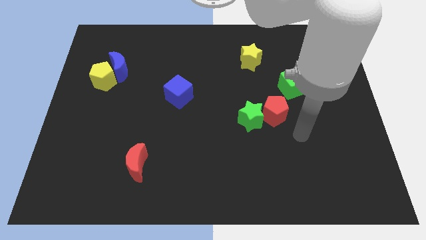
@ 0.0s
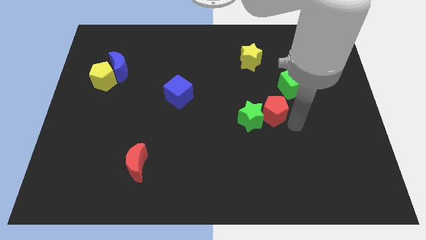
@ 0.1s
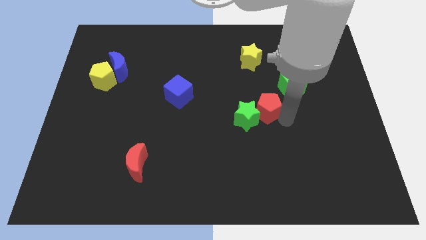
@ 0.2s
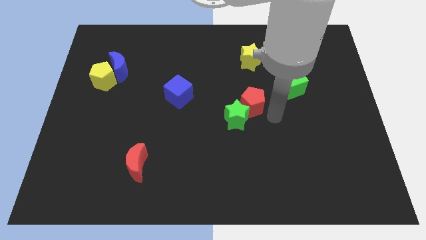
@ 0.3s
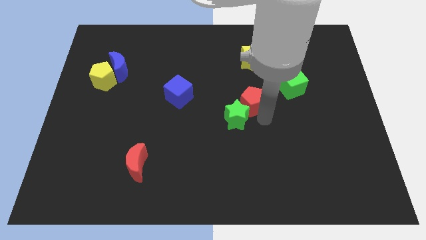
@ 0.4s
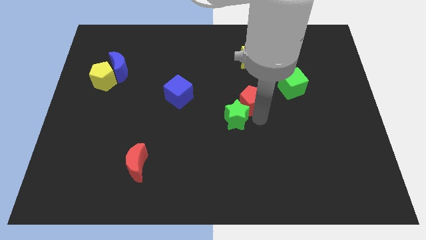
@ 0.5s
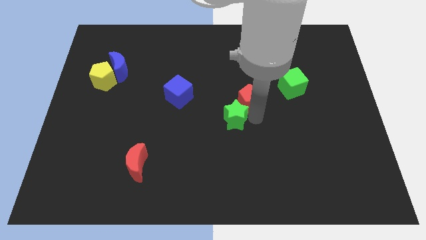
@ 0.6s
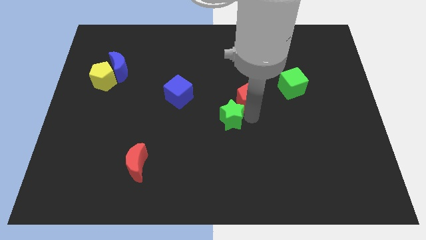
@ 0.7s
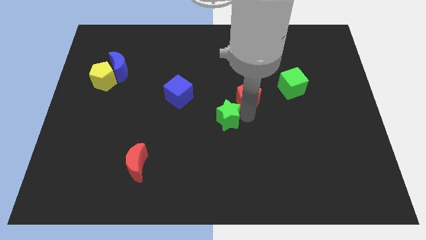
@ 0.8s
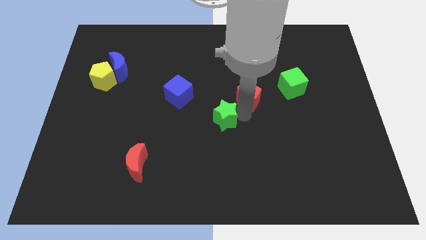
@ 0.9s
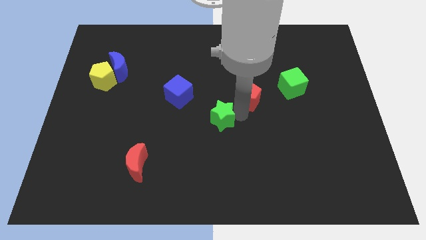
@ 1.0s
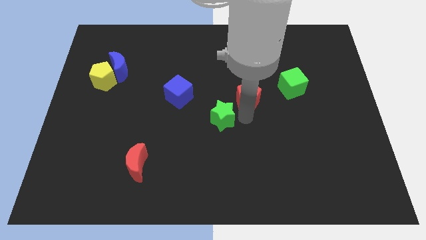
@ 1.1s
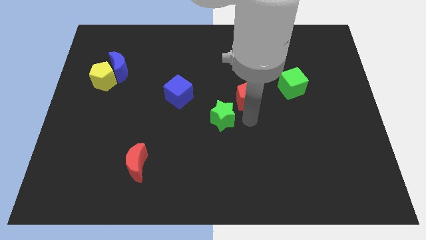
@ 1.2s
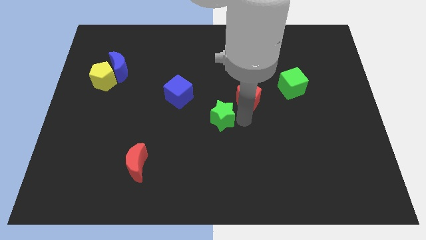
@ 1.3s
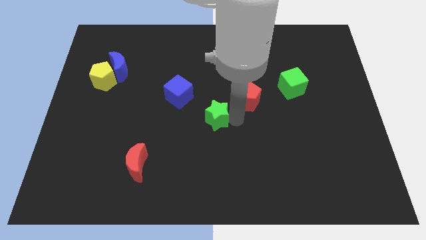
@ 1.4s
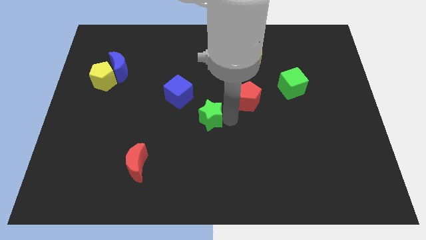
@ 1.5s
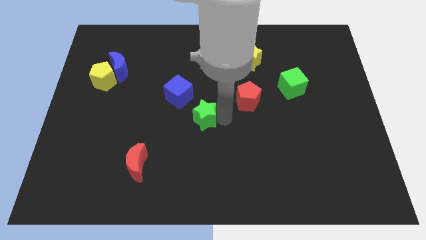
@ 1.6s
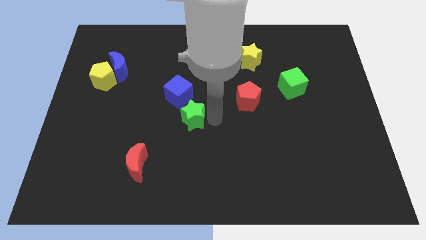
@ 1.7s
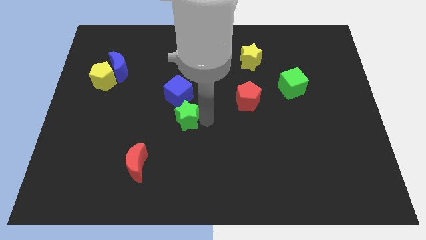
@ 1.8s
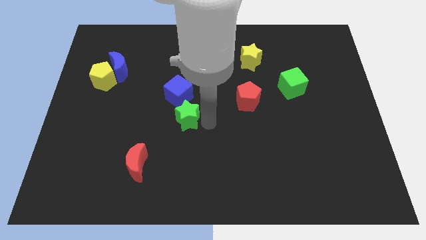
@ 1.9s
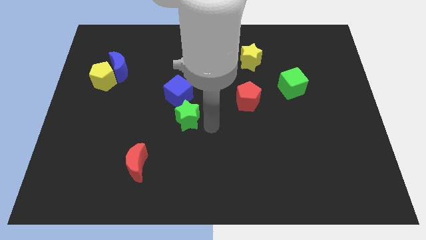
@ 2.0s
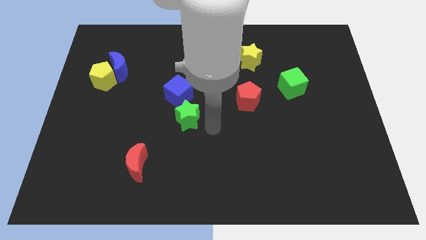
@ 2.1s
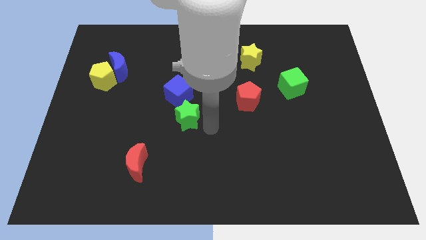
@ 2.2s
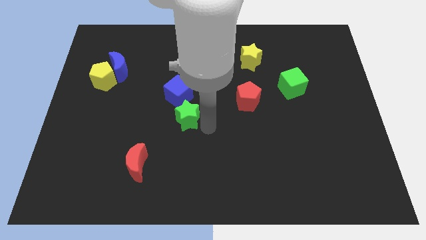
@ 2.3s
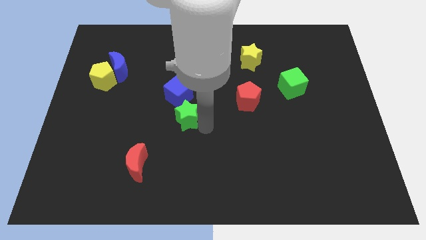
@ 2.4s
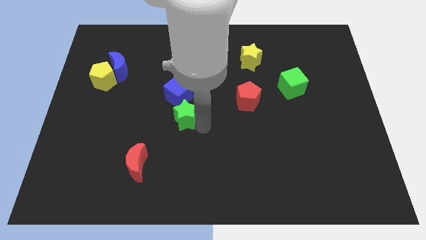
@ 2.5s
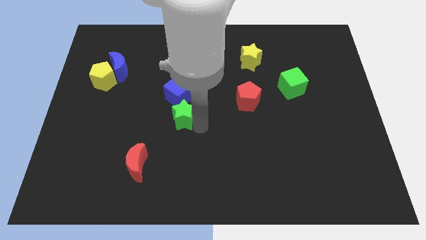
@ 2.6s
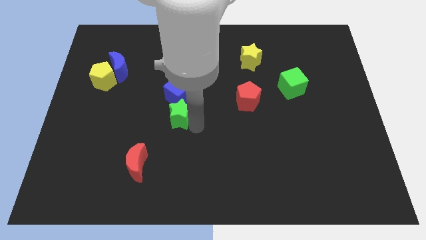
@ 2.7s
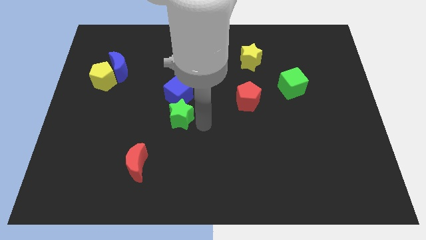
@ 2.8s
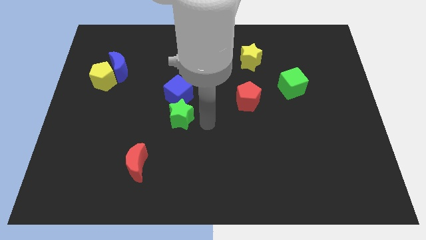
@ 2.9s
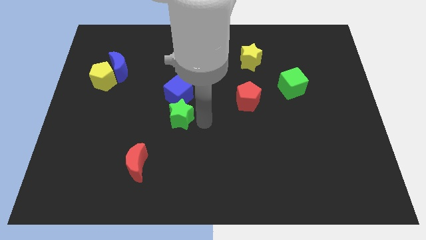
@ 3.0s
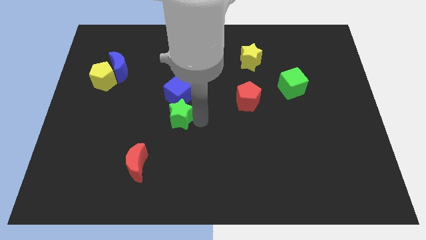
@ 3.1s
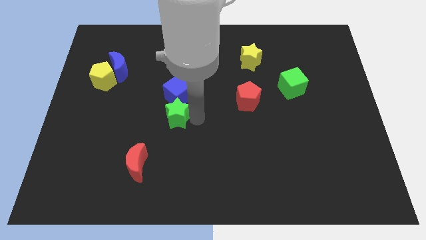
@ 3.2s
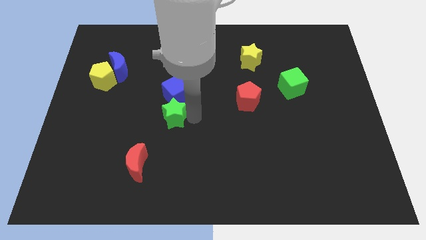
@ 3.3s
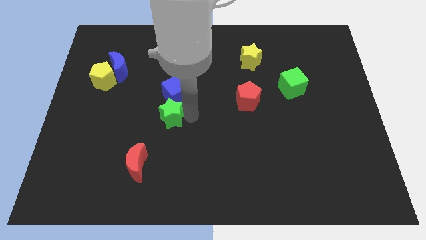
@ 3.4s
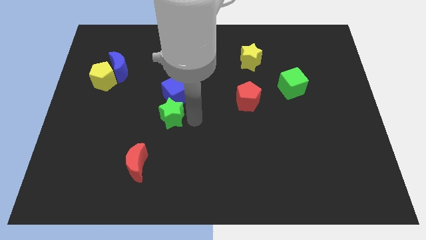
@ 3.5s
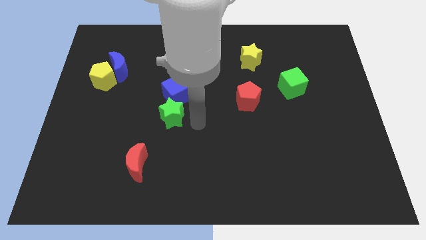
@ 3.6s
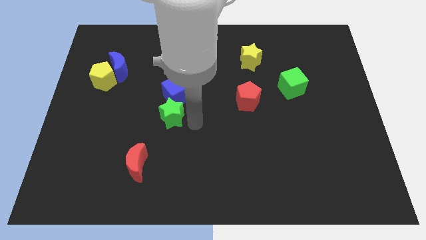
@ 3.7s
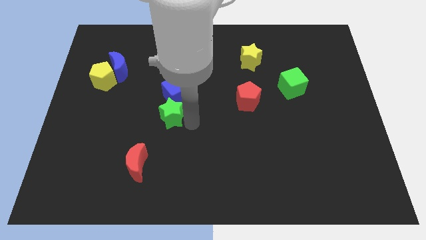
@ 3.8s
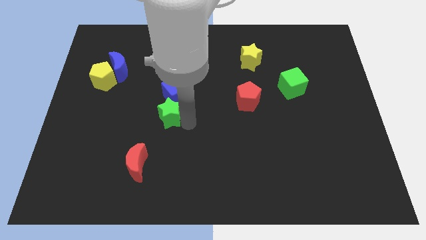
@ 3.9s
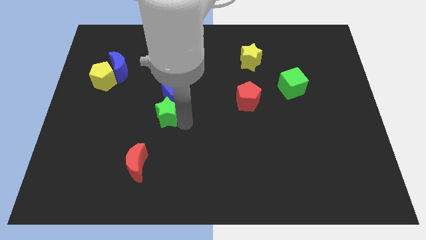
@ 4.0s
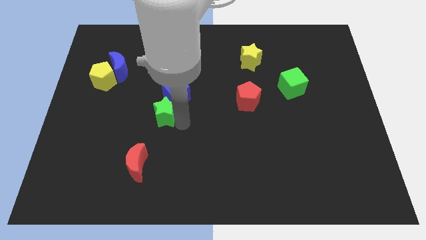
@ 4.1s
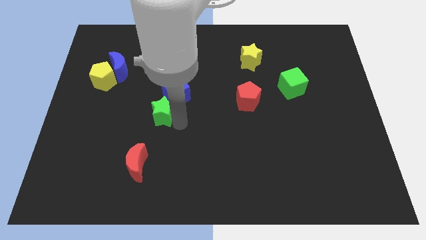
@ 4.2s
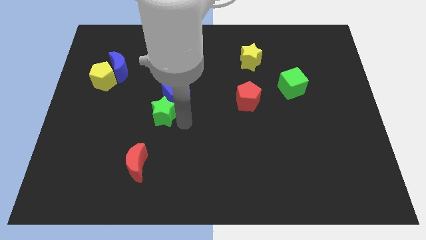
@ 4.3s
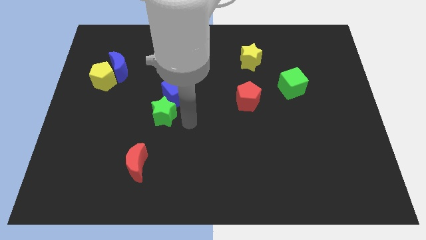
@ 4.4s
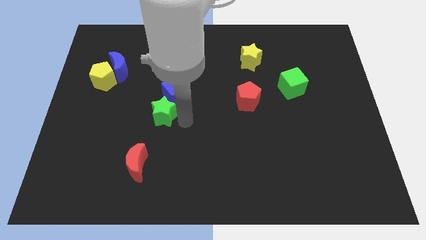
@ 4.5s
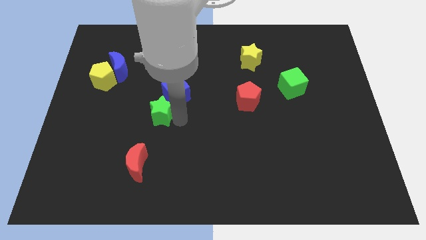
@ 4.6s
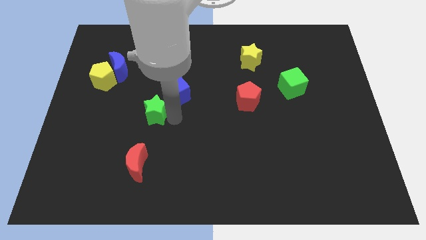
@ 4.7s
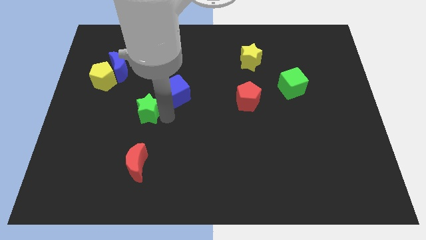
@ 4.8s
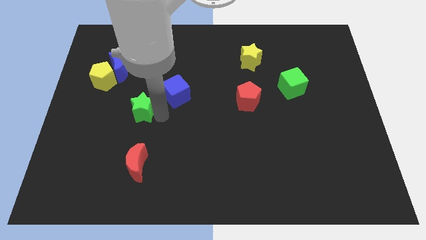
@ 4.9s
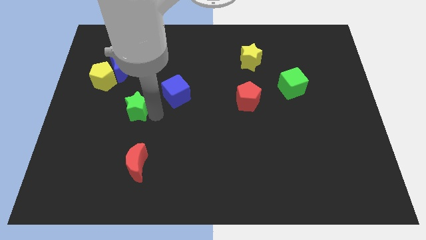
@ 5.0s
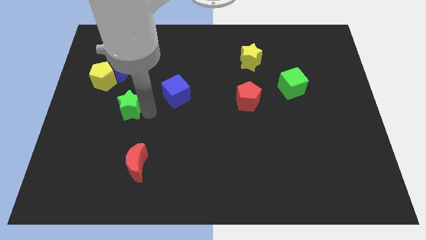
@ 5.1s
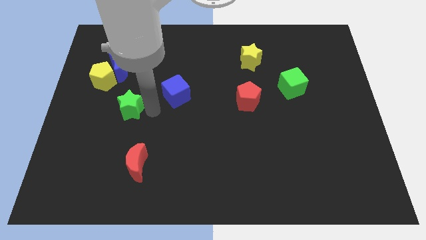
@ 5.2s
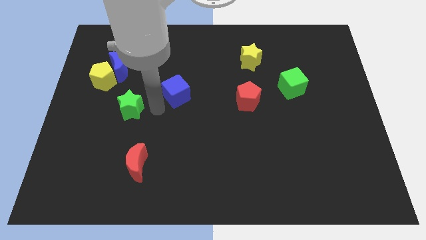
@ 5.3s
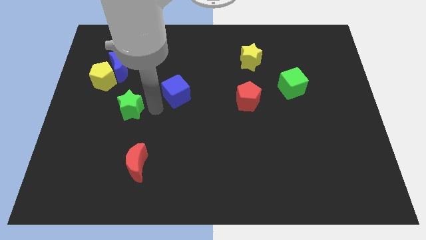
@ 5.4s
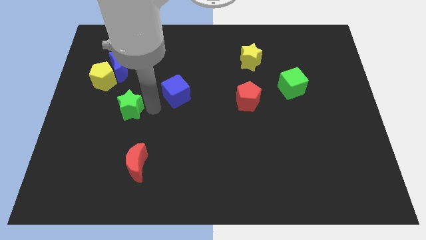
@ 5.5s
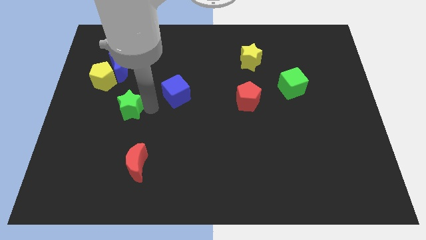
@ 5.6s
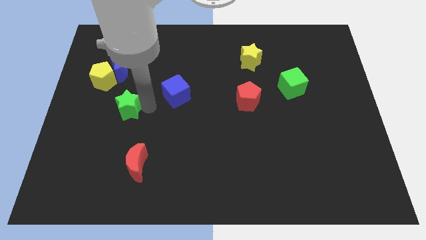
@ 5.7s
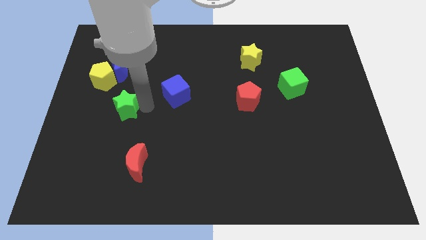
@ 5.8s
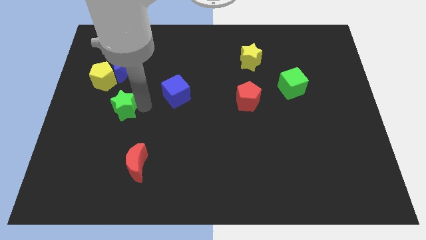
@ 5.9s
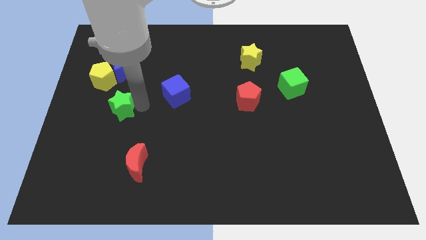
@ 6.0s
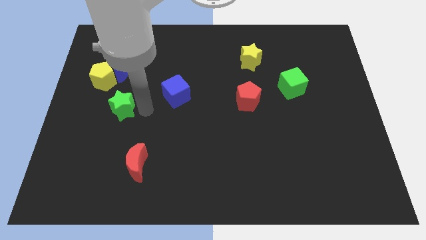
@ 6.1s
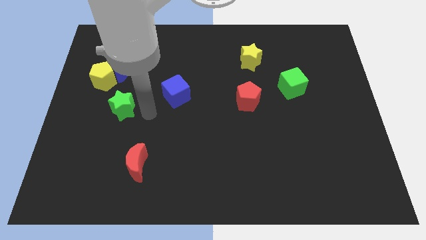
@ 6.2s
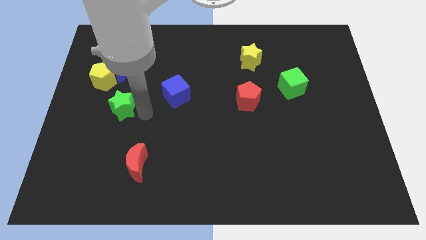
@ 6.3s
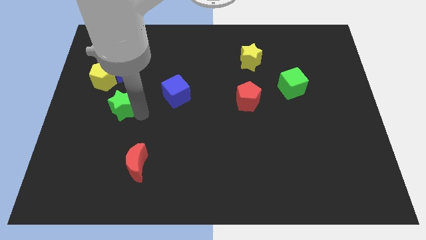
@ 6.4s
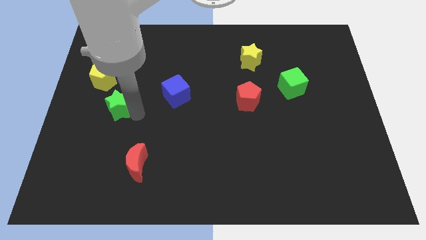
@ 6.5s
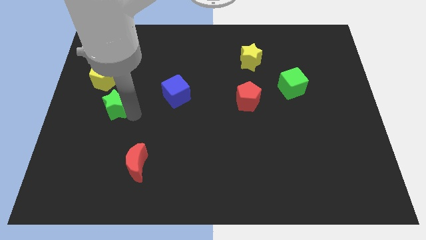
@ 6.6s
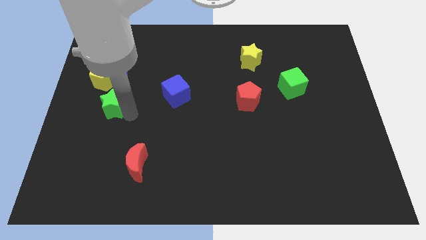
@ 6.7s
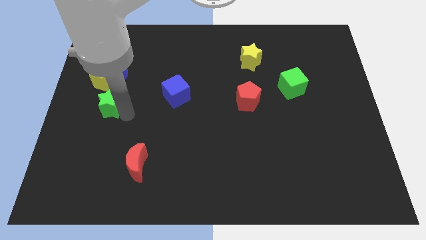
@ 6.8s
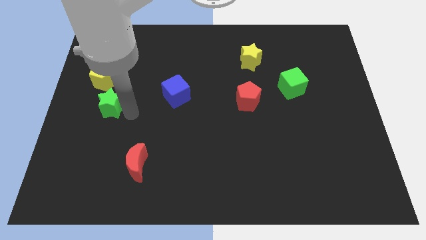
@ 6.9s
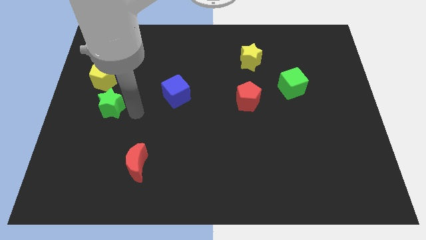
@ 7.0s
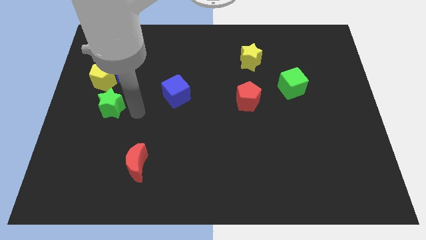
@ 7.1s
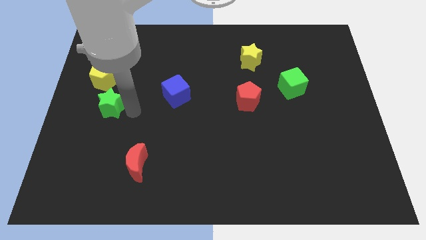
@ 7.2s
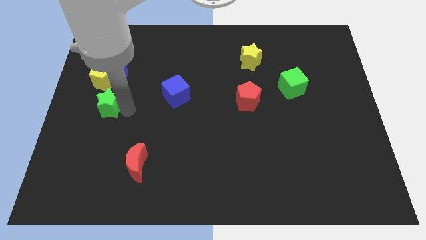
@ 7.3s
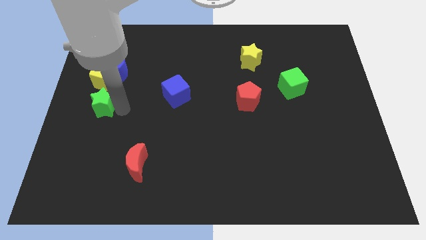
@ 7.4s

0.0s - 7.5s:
slide the green star to the left side of the board
